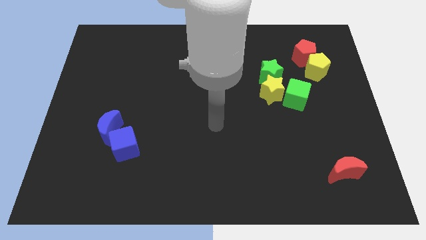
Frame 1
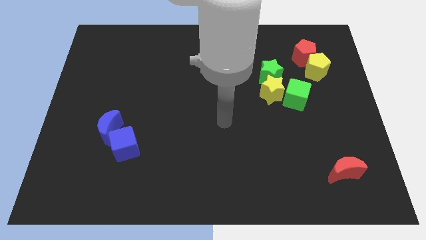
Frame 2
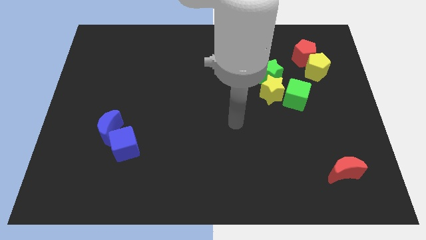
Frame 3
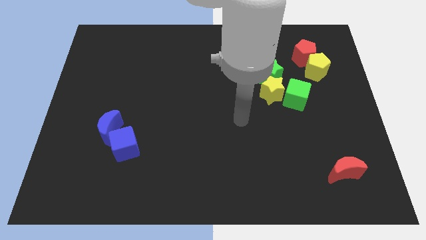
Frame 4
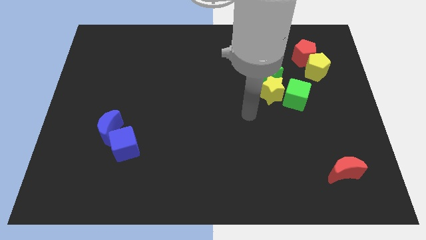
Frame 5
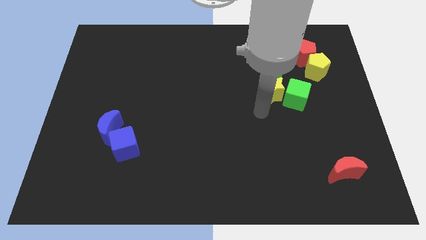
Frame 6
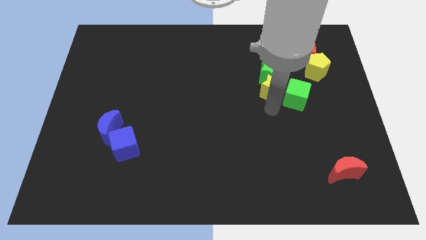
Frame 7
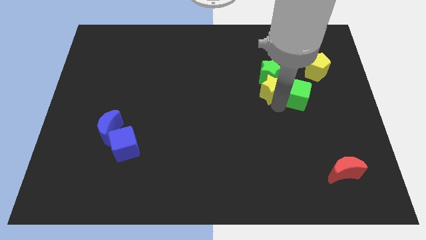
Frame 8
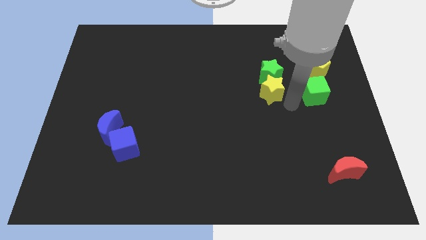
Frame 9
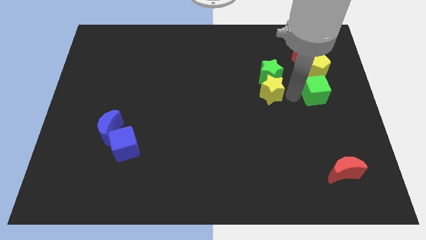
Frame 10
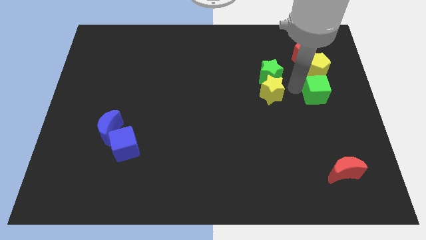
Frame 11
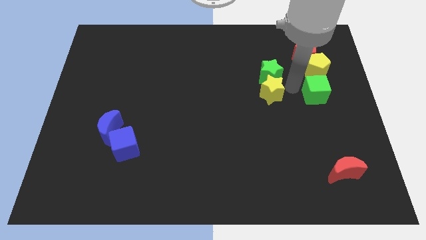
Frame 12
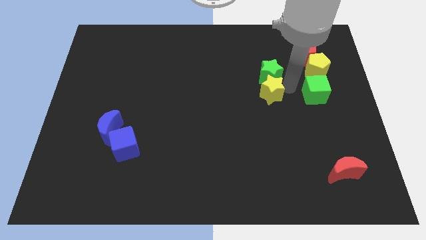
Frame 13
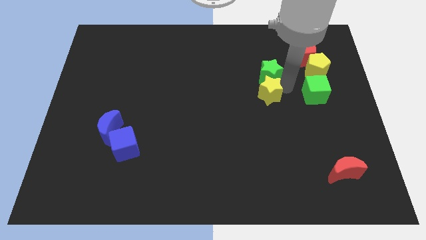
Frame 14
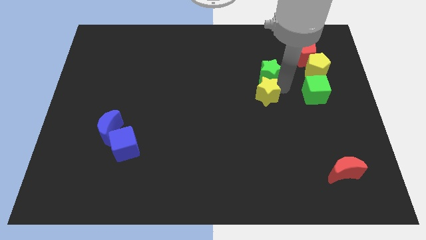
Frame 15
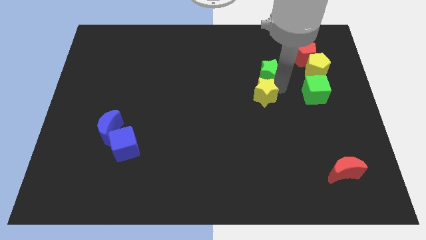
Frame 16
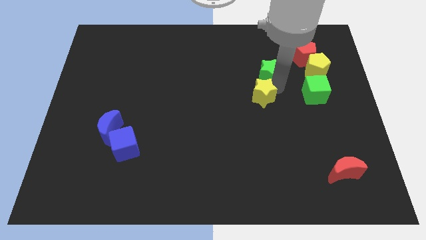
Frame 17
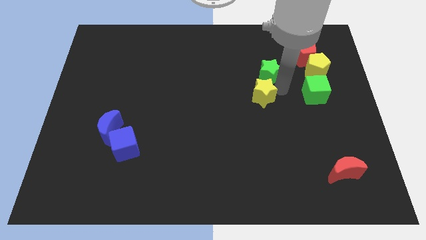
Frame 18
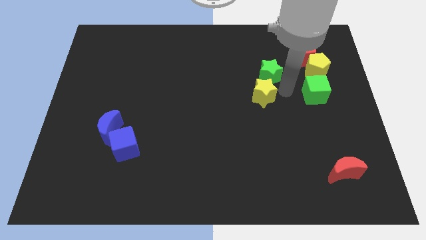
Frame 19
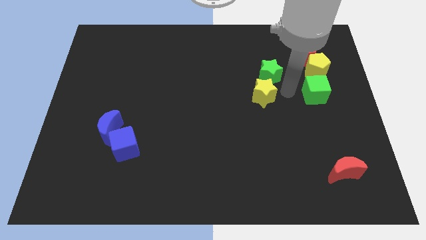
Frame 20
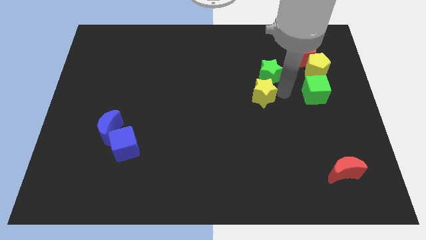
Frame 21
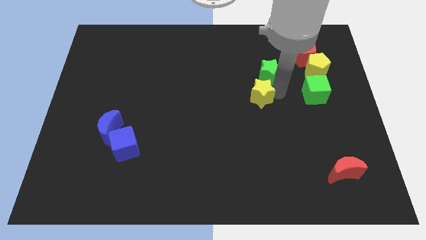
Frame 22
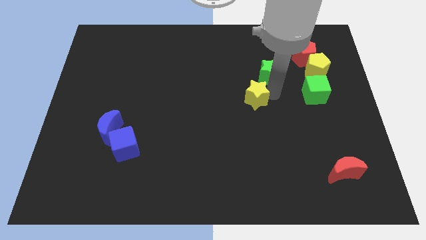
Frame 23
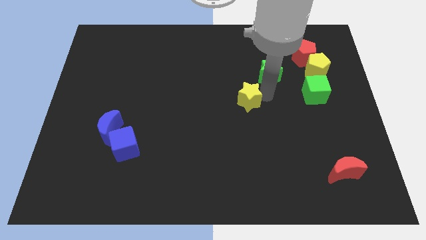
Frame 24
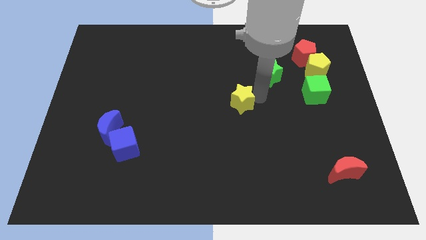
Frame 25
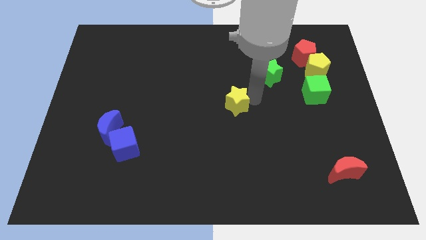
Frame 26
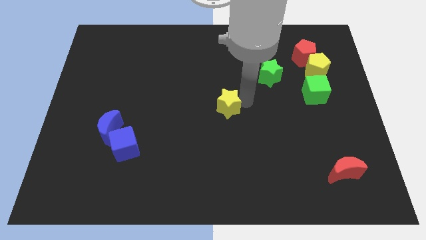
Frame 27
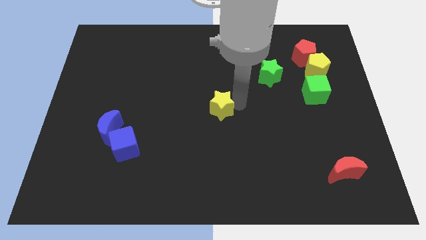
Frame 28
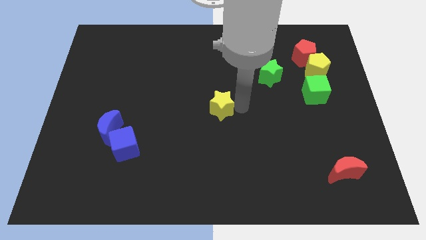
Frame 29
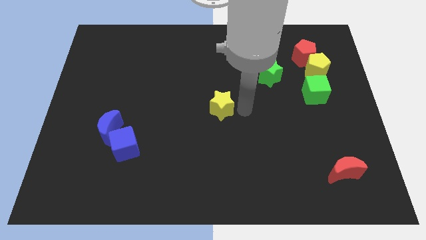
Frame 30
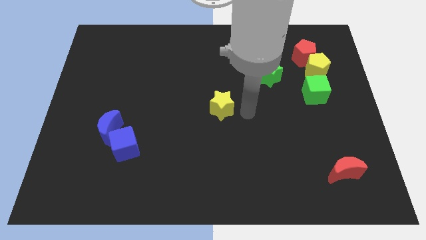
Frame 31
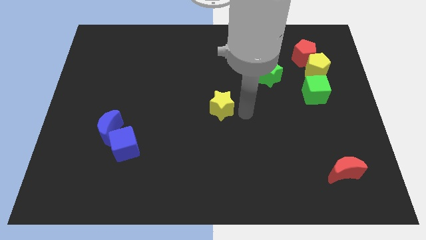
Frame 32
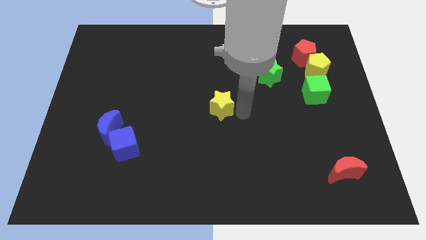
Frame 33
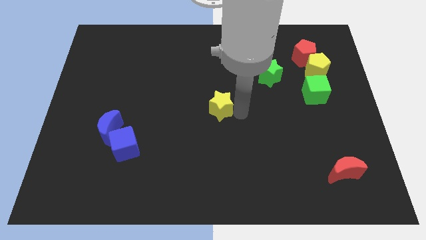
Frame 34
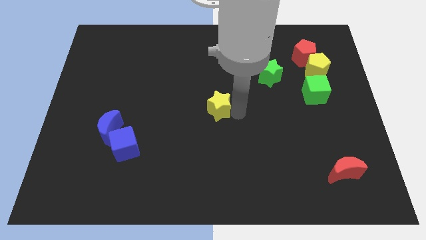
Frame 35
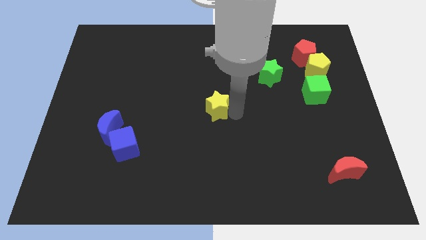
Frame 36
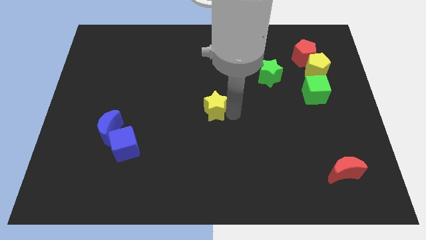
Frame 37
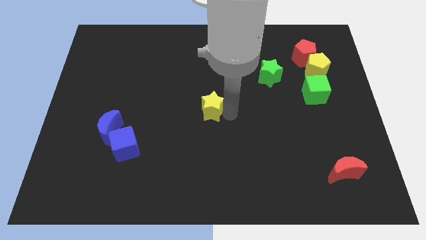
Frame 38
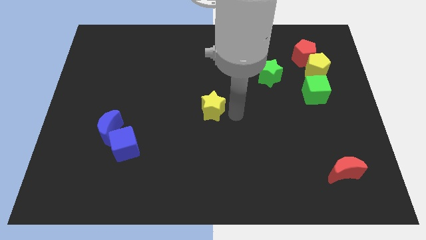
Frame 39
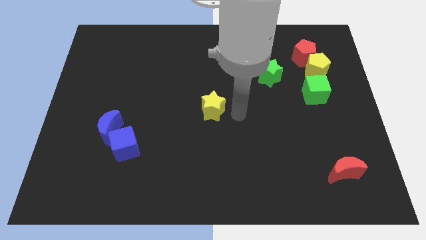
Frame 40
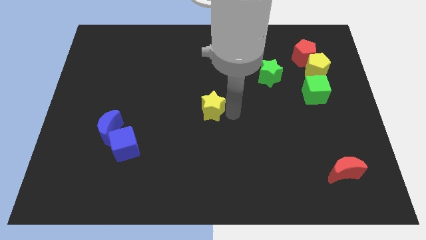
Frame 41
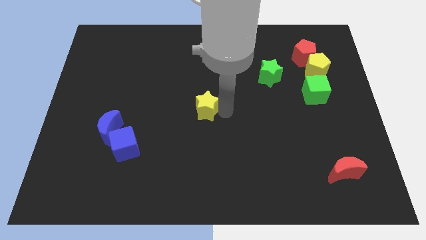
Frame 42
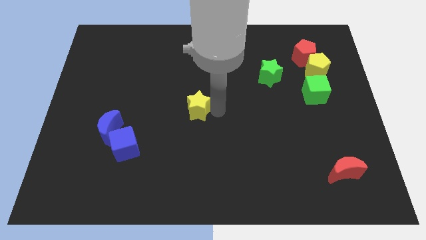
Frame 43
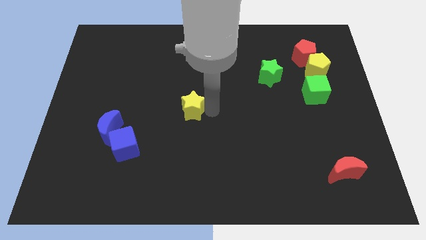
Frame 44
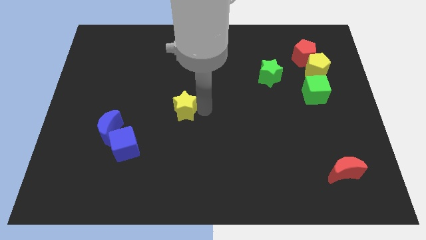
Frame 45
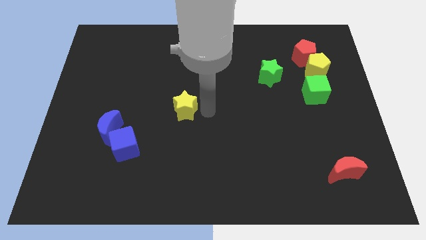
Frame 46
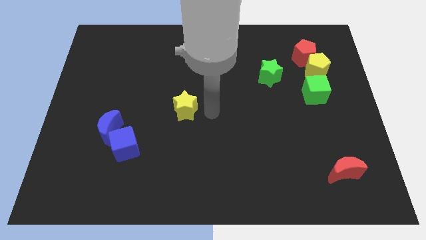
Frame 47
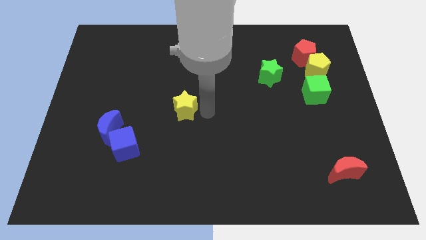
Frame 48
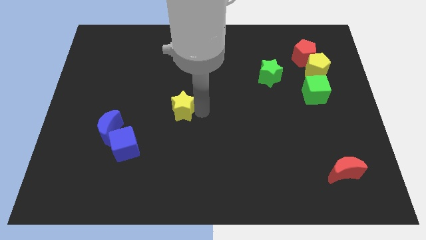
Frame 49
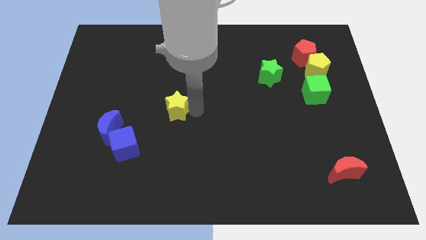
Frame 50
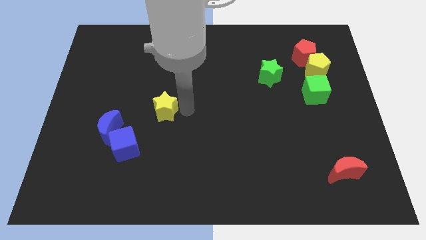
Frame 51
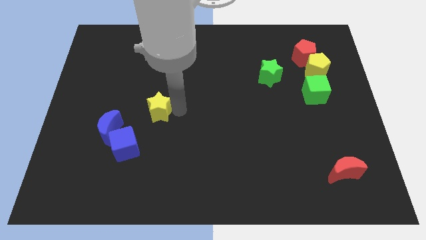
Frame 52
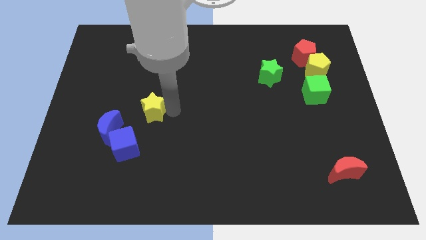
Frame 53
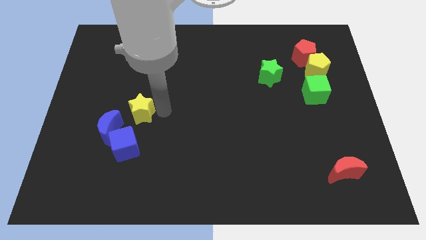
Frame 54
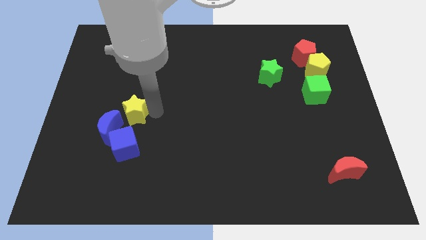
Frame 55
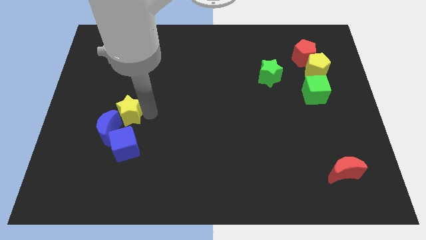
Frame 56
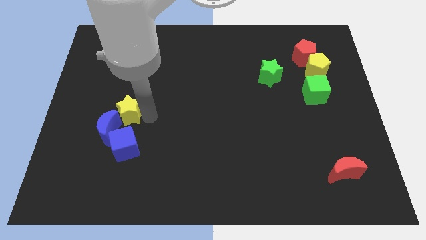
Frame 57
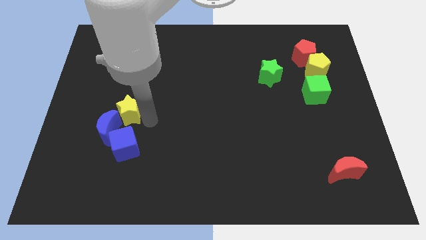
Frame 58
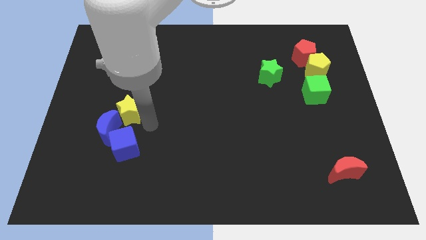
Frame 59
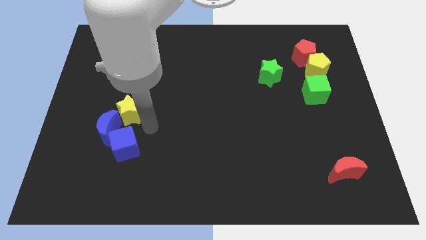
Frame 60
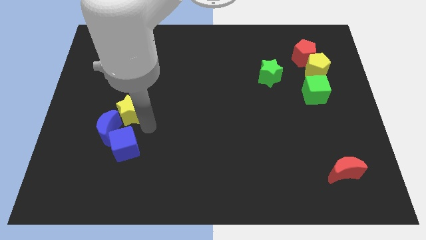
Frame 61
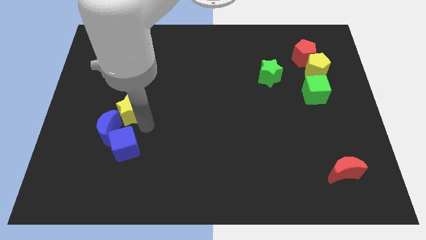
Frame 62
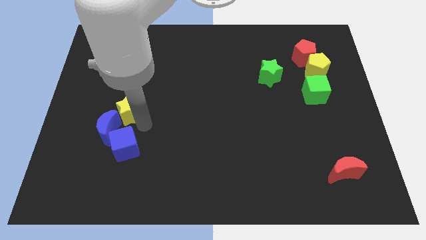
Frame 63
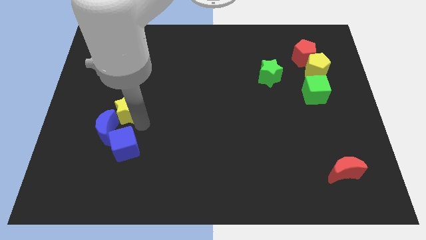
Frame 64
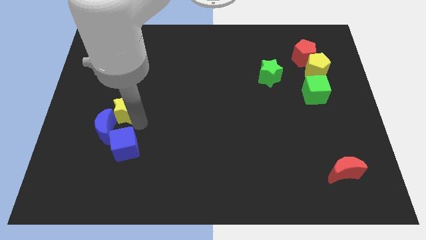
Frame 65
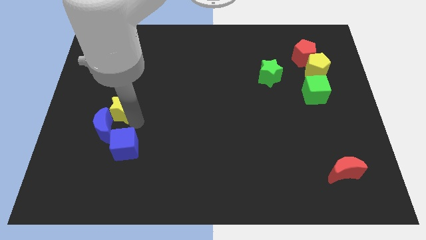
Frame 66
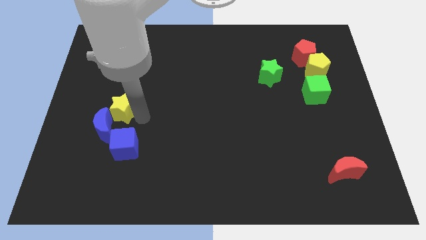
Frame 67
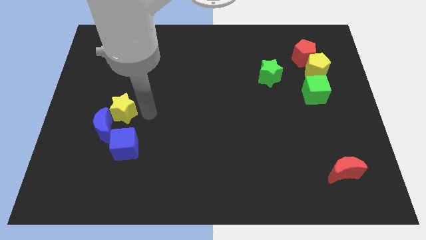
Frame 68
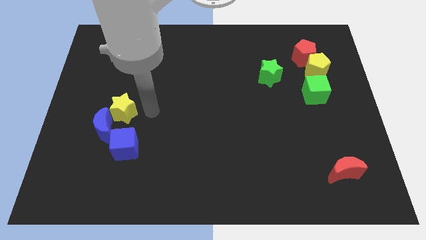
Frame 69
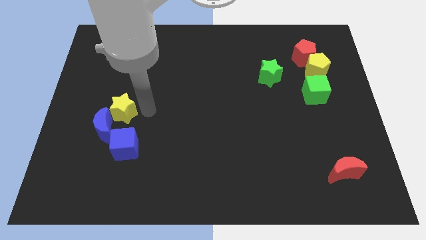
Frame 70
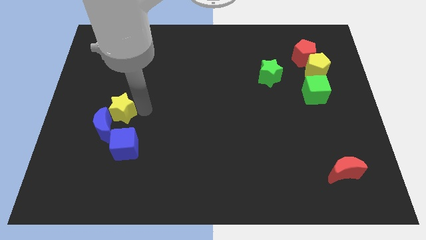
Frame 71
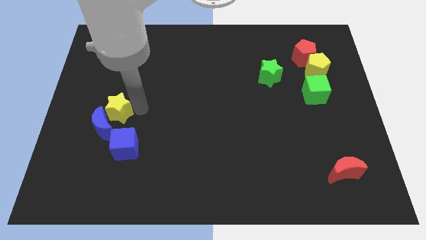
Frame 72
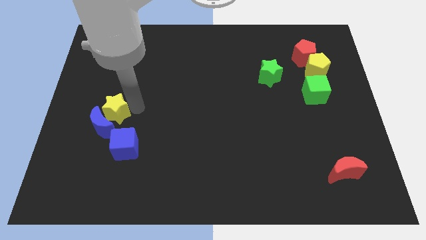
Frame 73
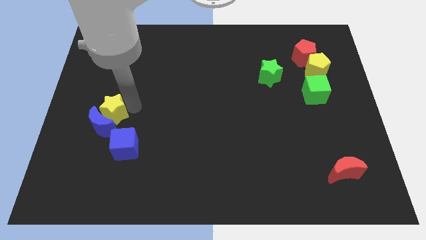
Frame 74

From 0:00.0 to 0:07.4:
push the yellow star diagonally up and to the left of the blue moon

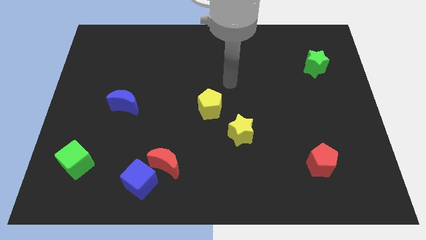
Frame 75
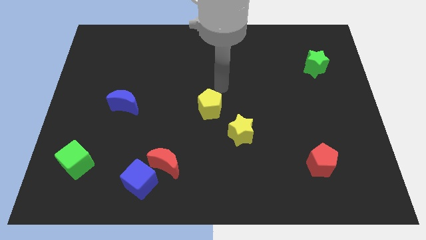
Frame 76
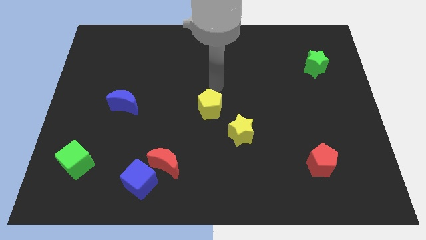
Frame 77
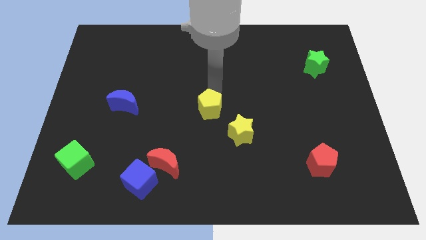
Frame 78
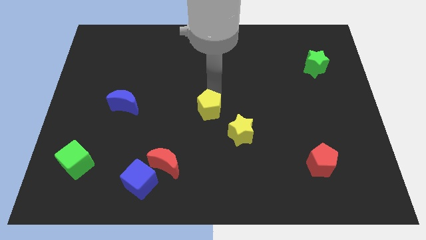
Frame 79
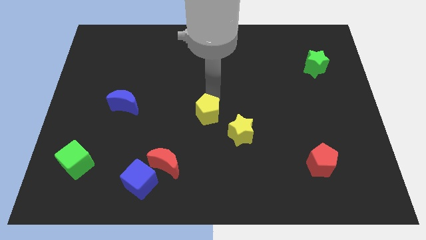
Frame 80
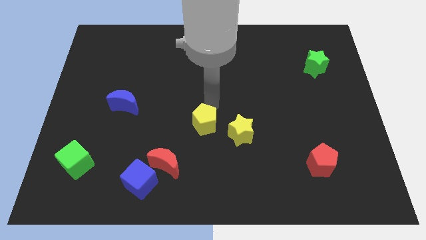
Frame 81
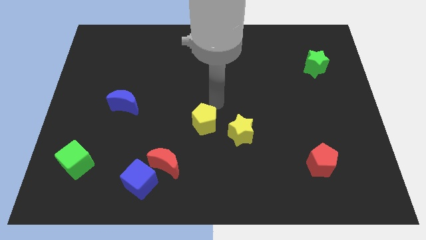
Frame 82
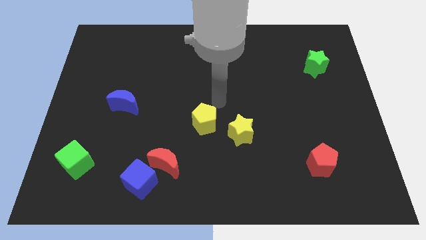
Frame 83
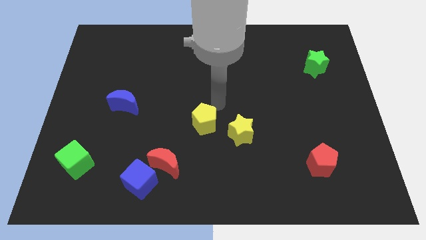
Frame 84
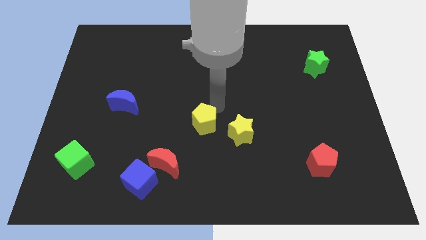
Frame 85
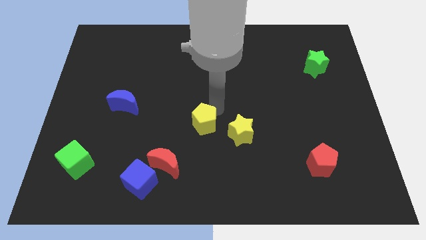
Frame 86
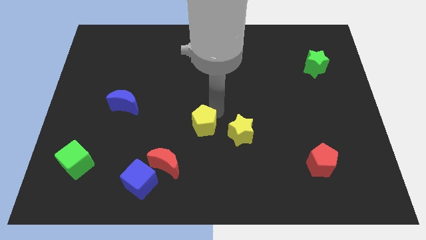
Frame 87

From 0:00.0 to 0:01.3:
slide the yellow pentagon to the top right of the red moon
